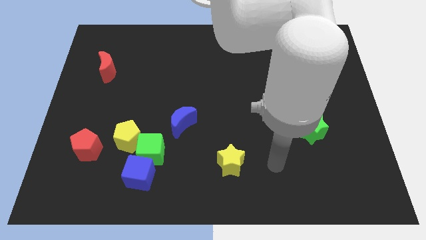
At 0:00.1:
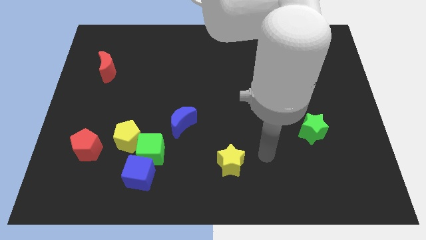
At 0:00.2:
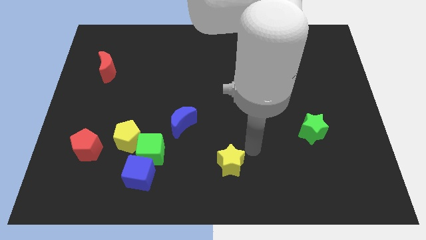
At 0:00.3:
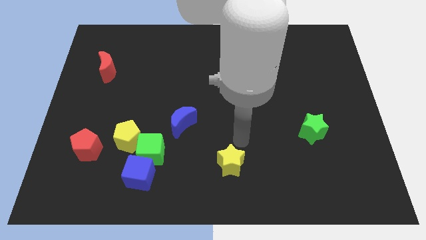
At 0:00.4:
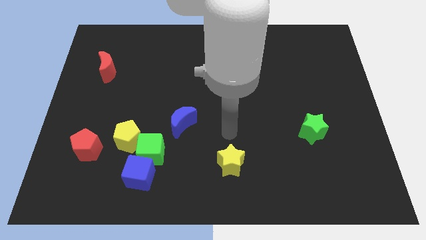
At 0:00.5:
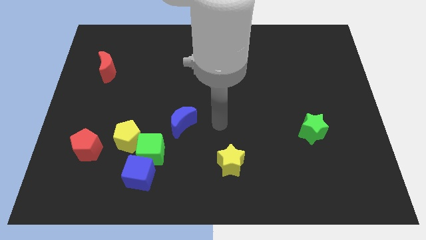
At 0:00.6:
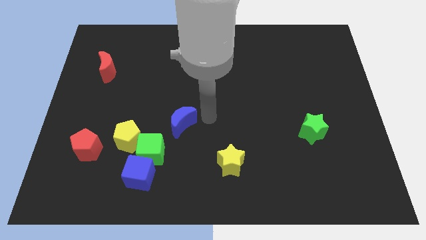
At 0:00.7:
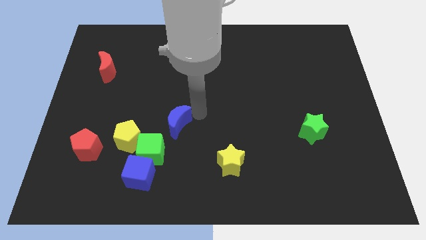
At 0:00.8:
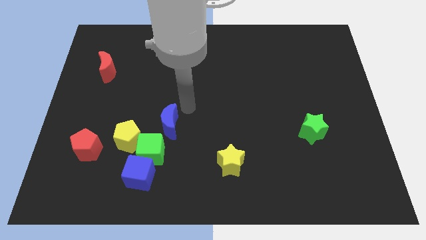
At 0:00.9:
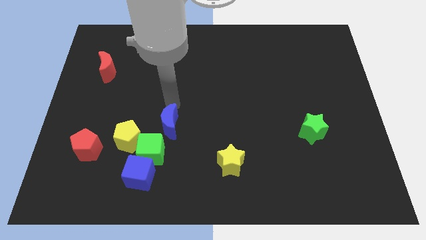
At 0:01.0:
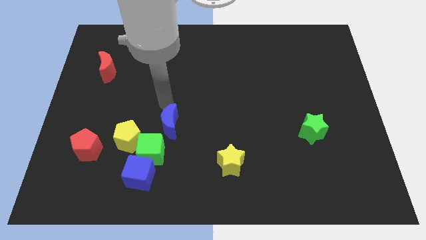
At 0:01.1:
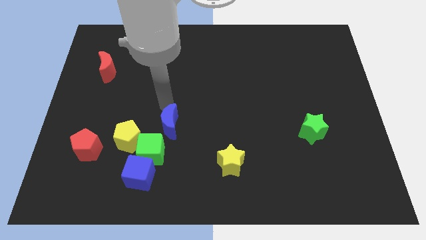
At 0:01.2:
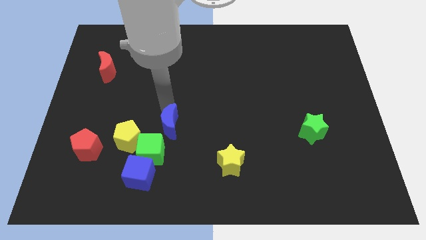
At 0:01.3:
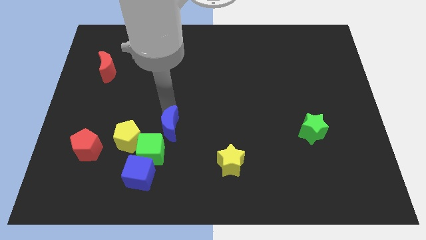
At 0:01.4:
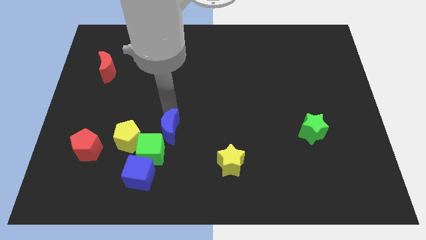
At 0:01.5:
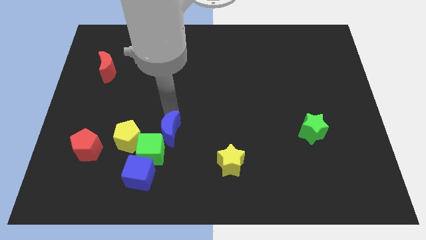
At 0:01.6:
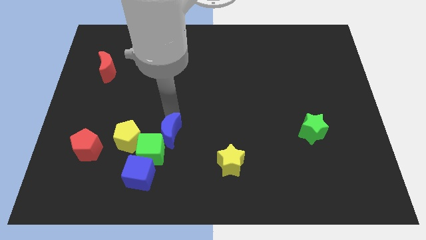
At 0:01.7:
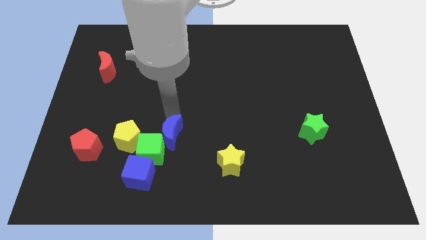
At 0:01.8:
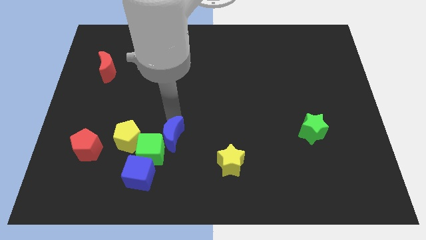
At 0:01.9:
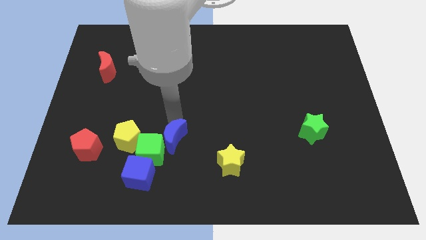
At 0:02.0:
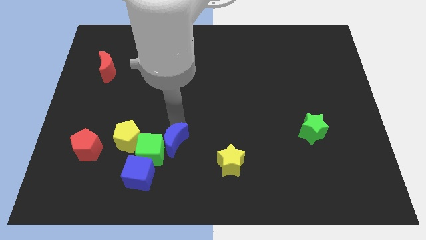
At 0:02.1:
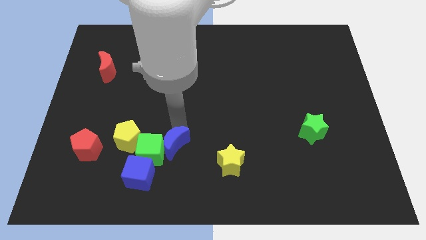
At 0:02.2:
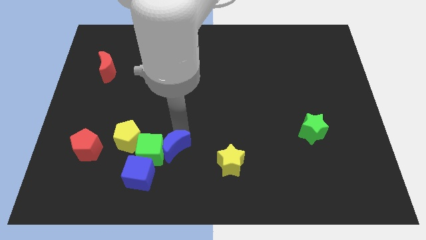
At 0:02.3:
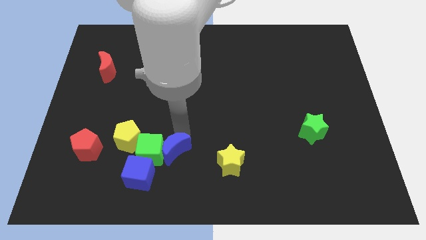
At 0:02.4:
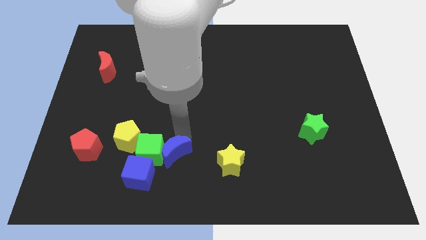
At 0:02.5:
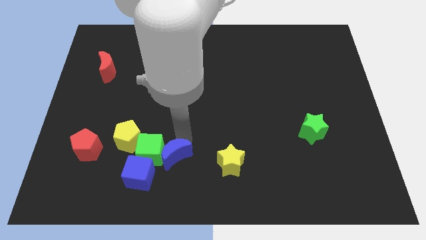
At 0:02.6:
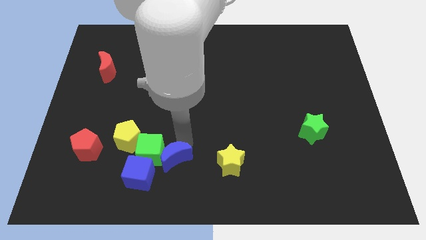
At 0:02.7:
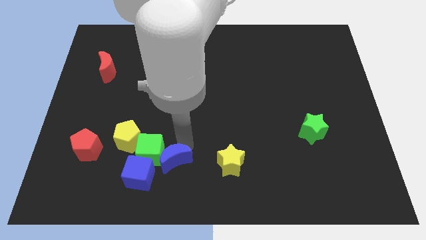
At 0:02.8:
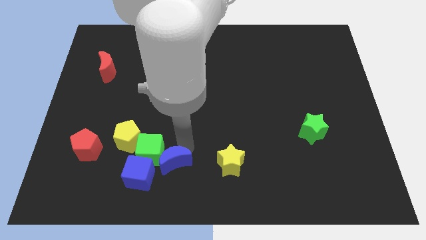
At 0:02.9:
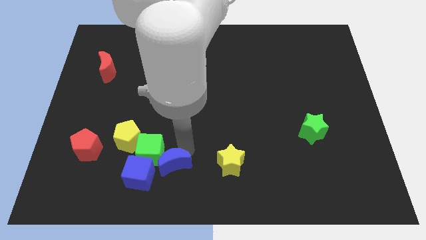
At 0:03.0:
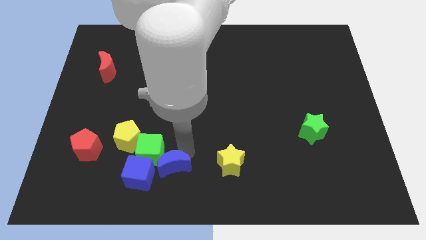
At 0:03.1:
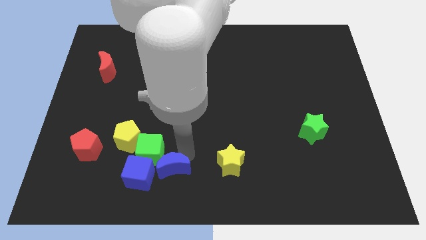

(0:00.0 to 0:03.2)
slightly slide the blue moon diagonally downwards and to the left

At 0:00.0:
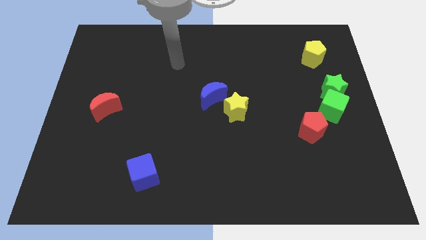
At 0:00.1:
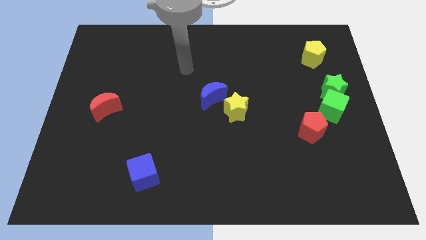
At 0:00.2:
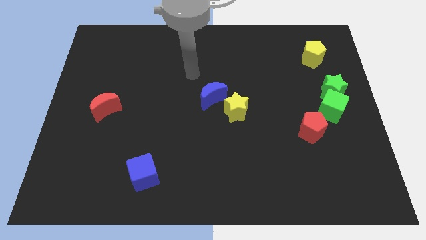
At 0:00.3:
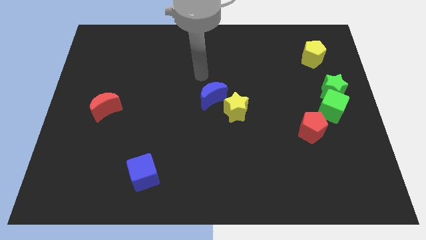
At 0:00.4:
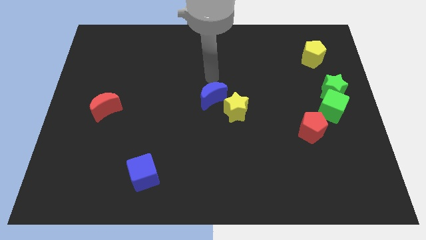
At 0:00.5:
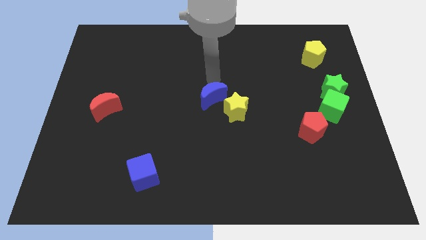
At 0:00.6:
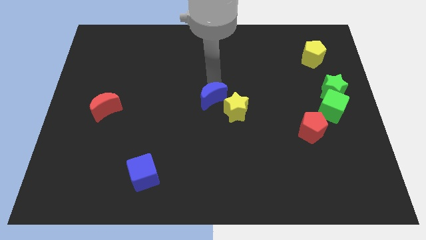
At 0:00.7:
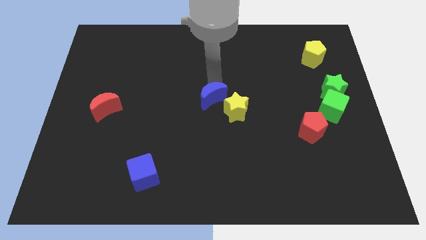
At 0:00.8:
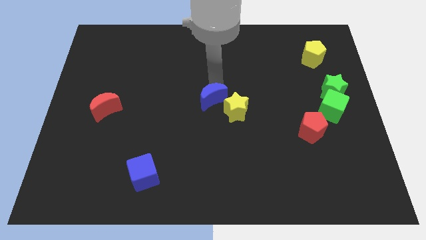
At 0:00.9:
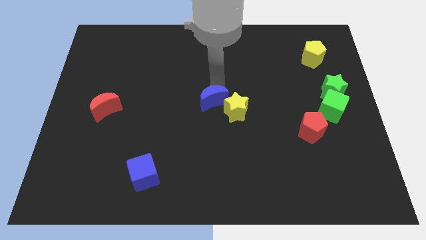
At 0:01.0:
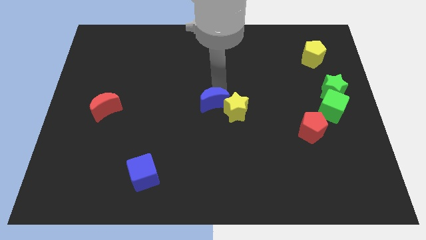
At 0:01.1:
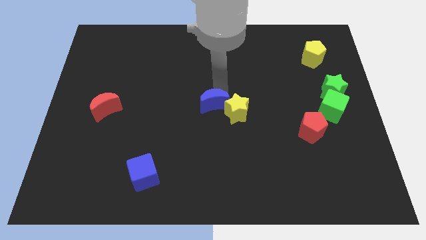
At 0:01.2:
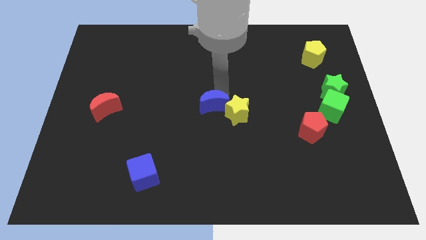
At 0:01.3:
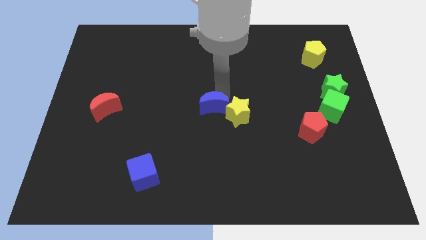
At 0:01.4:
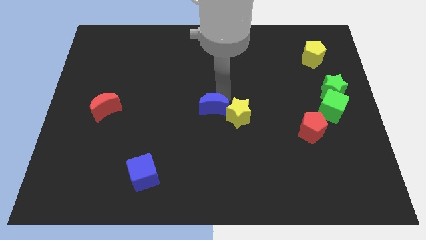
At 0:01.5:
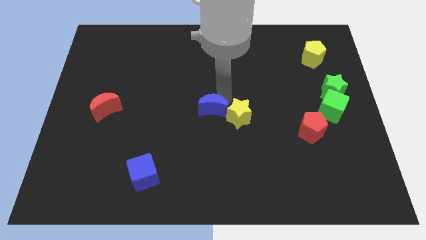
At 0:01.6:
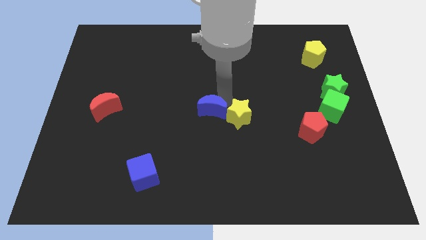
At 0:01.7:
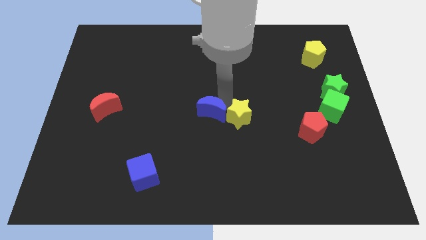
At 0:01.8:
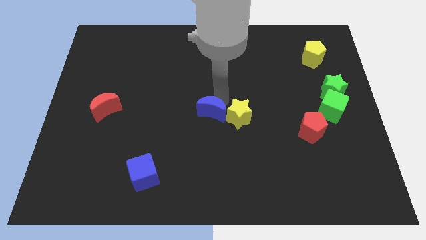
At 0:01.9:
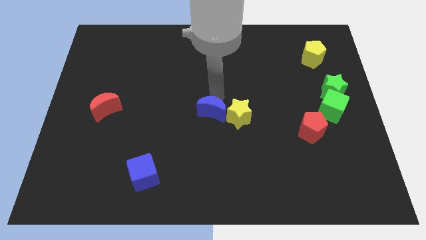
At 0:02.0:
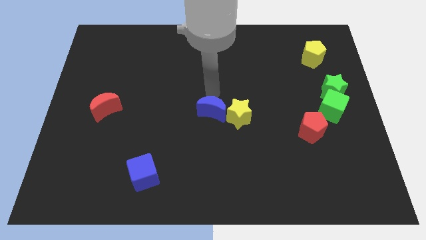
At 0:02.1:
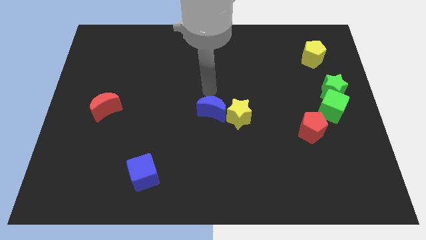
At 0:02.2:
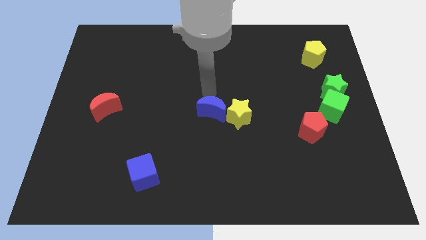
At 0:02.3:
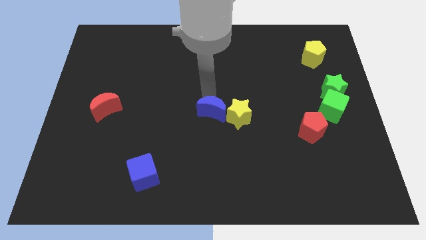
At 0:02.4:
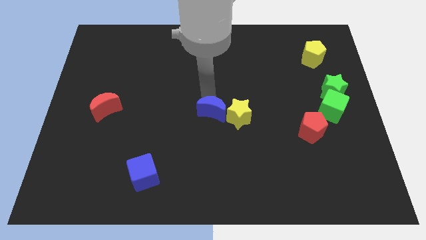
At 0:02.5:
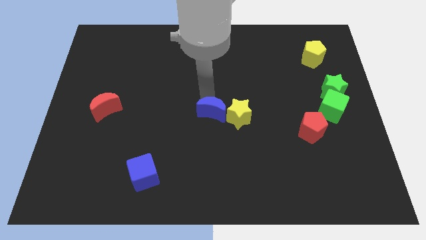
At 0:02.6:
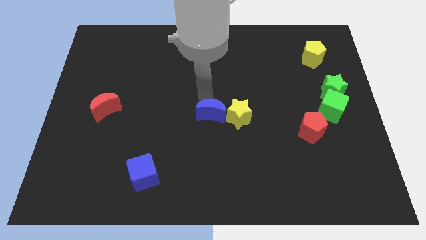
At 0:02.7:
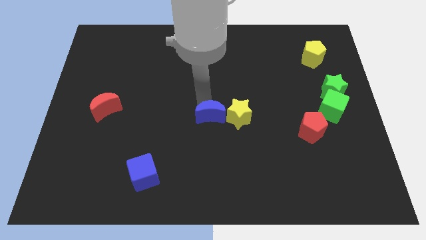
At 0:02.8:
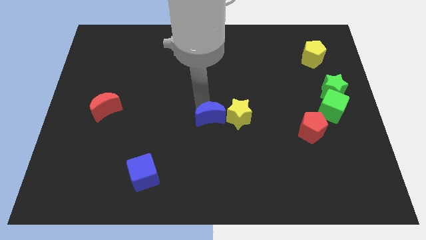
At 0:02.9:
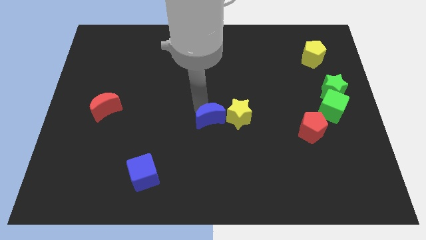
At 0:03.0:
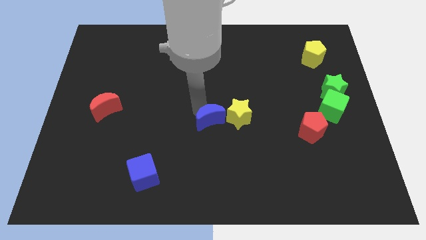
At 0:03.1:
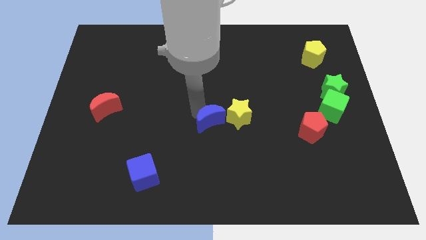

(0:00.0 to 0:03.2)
slide the blue moon downwards a little

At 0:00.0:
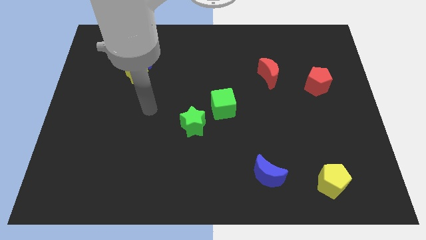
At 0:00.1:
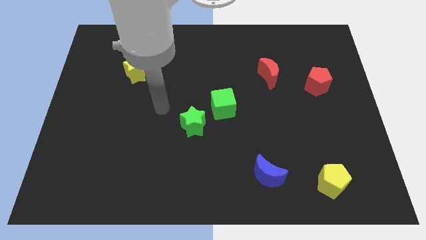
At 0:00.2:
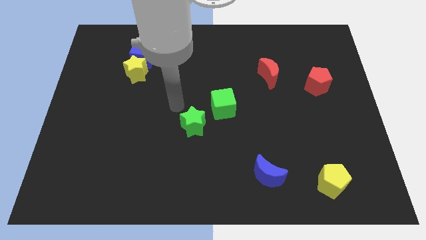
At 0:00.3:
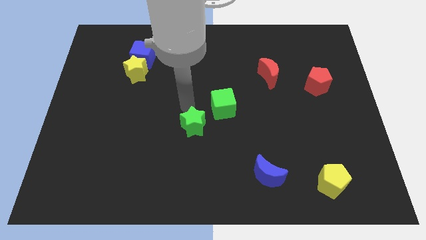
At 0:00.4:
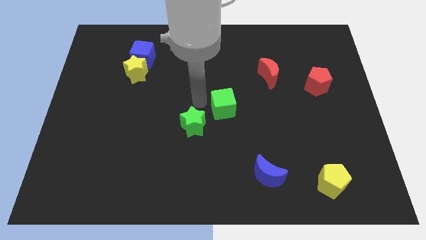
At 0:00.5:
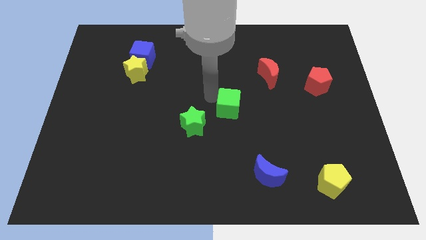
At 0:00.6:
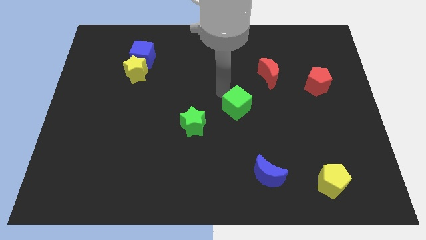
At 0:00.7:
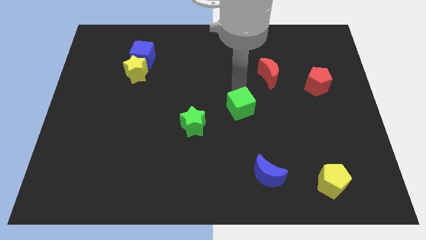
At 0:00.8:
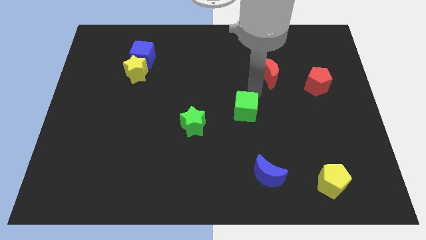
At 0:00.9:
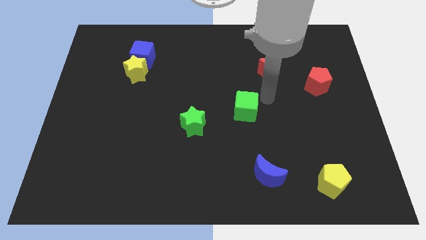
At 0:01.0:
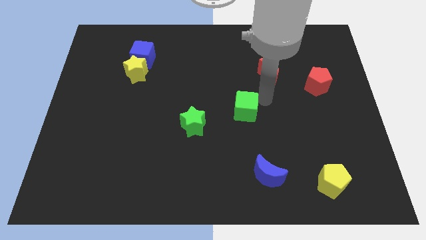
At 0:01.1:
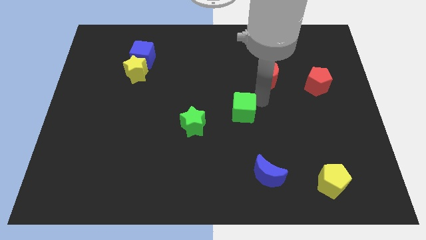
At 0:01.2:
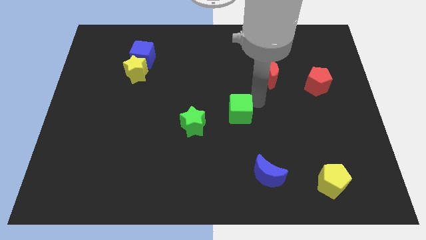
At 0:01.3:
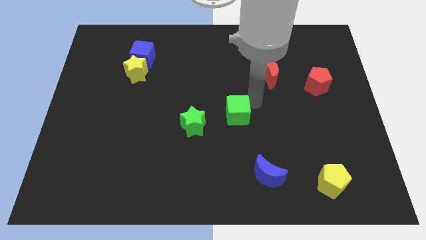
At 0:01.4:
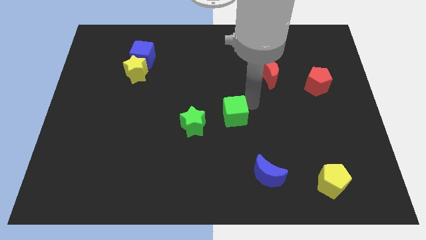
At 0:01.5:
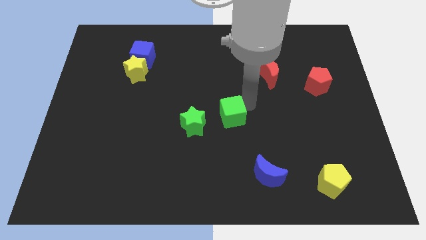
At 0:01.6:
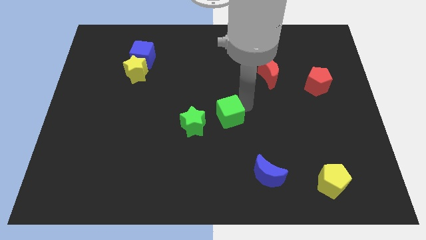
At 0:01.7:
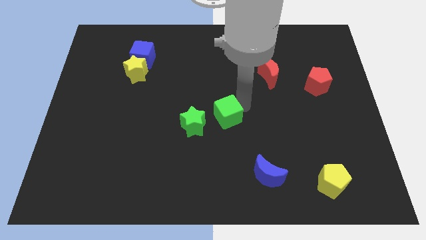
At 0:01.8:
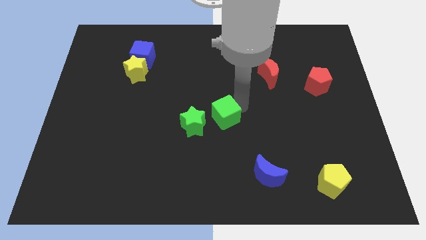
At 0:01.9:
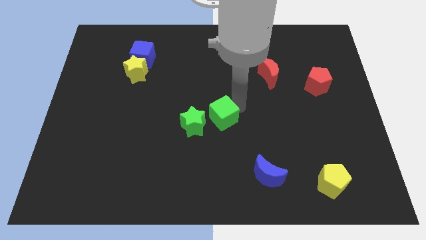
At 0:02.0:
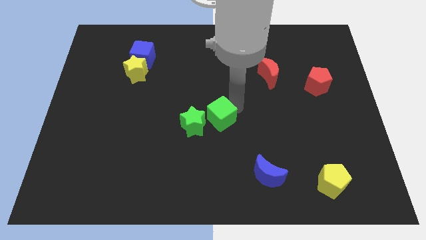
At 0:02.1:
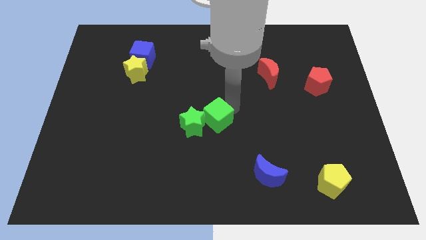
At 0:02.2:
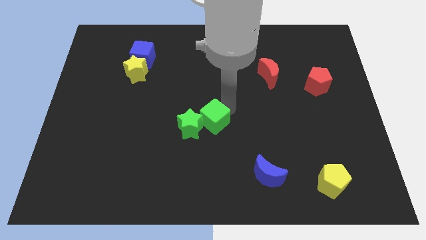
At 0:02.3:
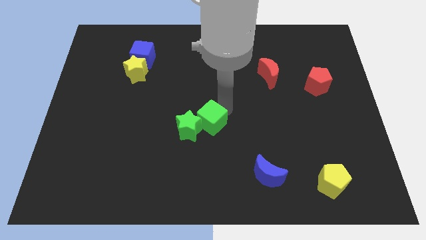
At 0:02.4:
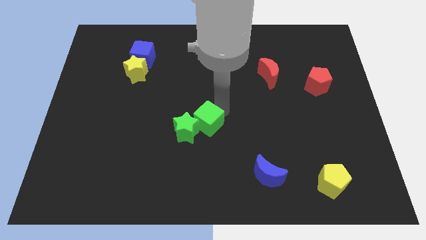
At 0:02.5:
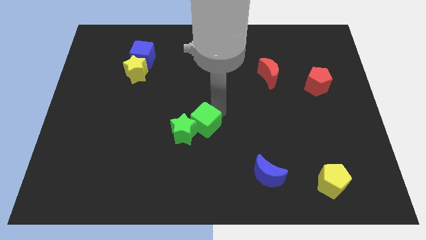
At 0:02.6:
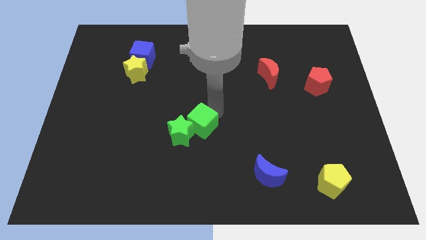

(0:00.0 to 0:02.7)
slightly move the green cube diagonally down and to the left
